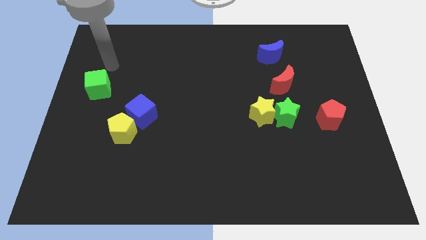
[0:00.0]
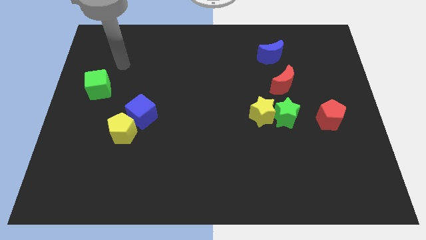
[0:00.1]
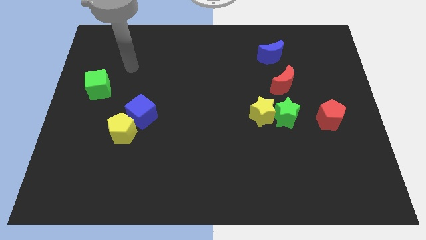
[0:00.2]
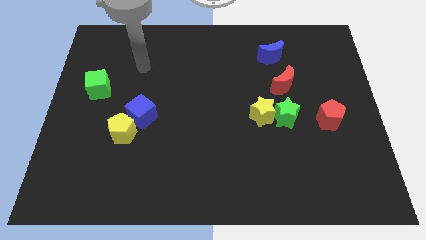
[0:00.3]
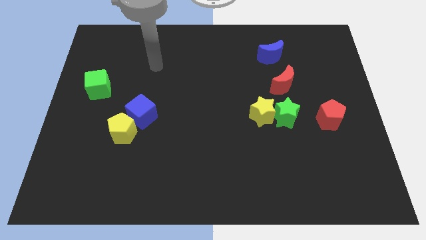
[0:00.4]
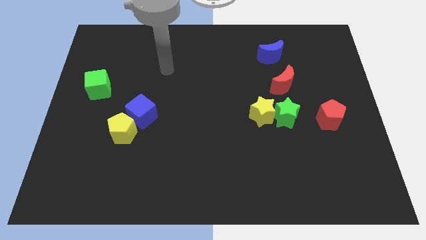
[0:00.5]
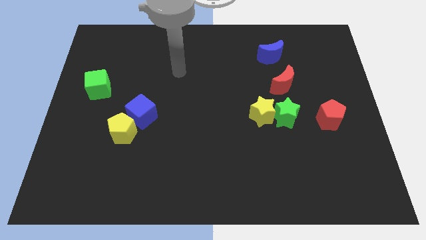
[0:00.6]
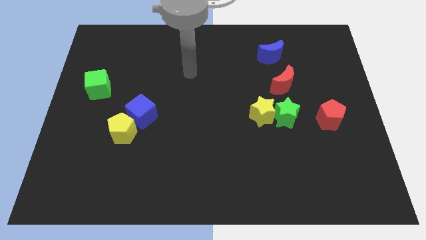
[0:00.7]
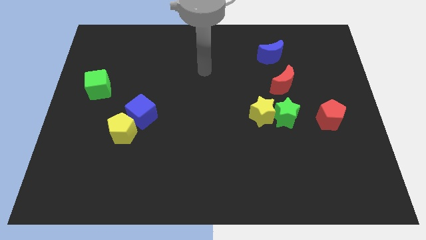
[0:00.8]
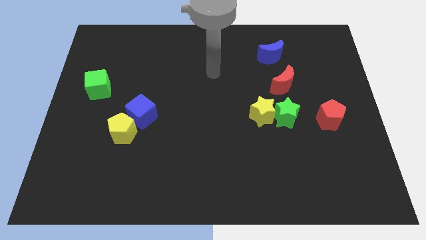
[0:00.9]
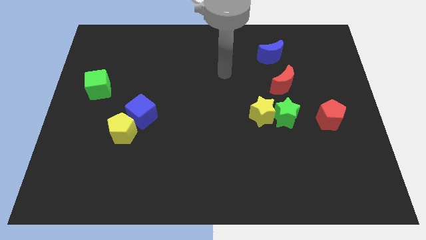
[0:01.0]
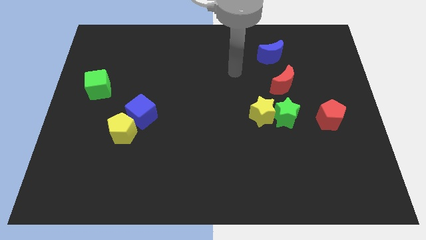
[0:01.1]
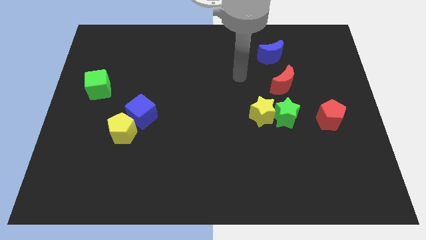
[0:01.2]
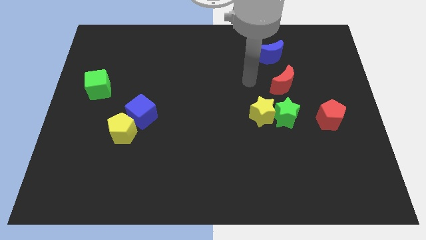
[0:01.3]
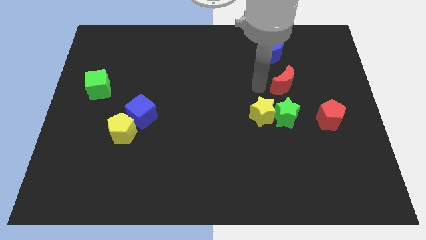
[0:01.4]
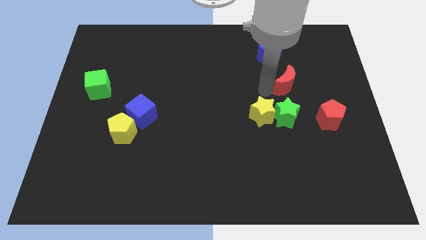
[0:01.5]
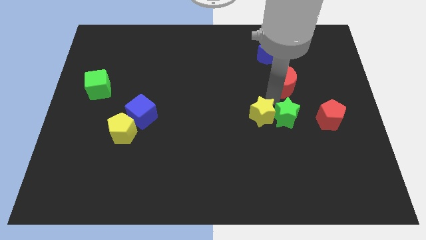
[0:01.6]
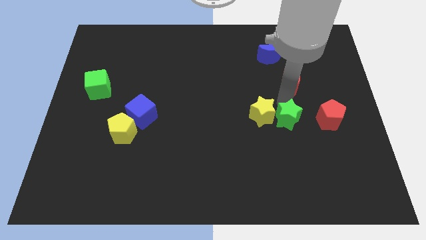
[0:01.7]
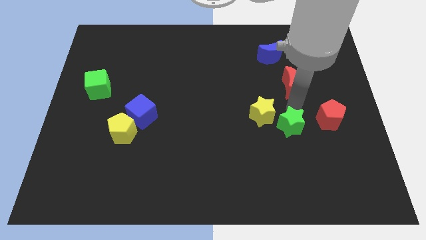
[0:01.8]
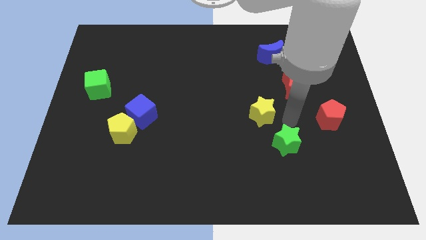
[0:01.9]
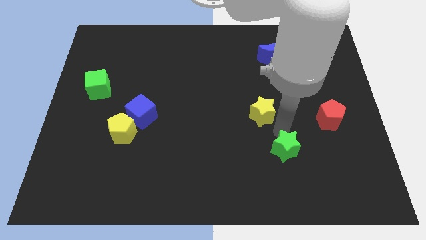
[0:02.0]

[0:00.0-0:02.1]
separate the yellow star from the green star

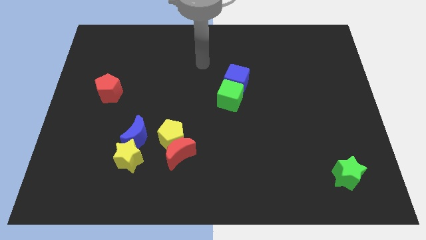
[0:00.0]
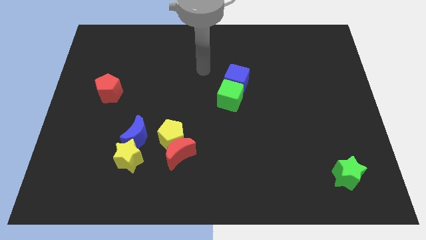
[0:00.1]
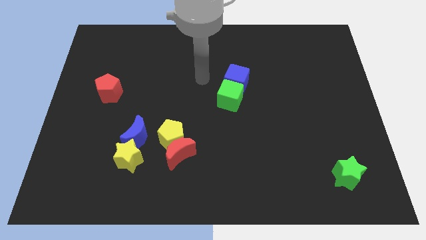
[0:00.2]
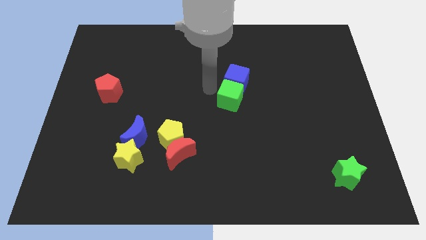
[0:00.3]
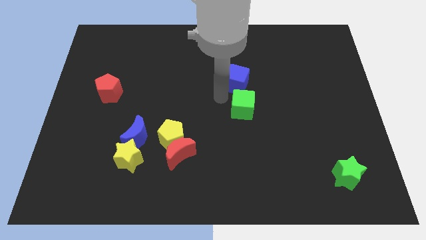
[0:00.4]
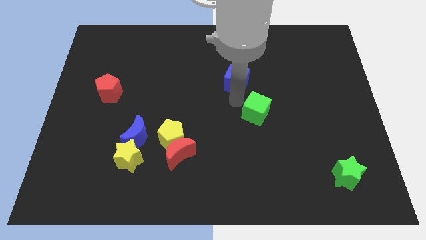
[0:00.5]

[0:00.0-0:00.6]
separate the blue cube from the green cube

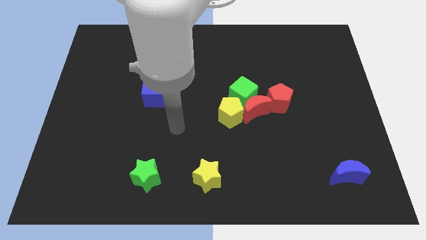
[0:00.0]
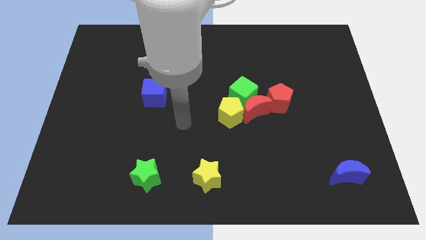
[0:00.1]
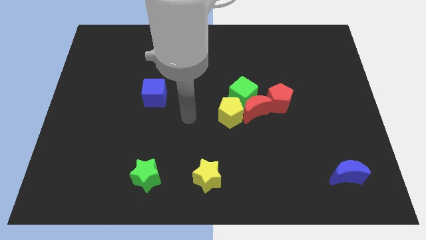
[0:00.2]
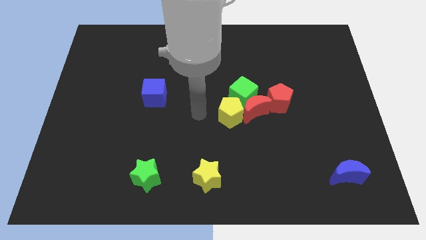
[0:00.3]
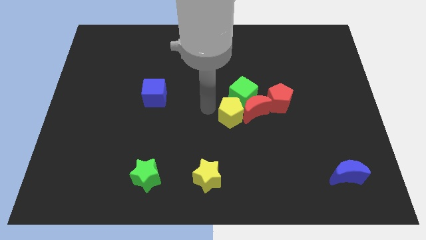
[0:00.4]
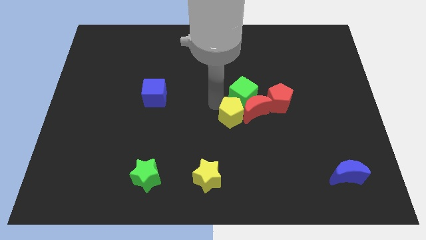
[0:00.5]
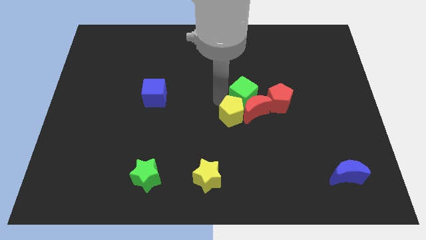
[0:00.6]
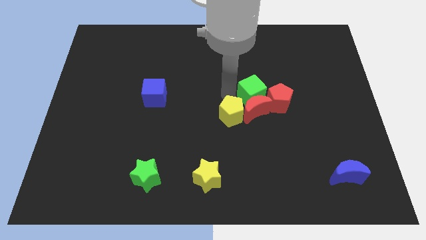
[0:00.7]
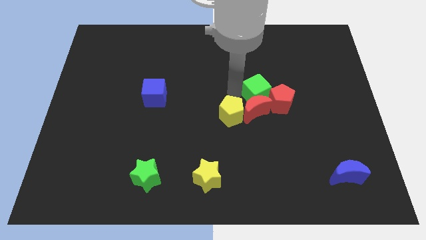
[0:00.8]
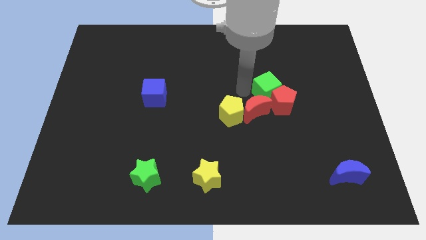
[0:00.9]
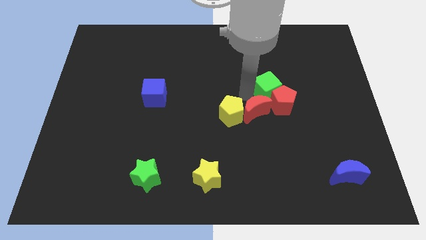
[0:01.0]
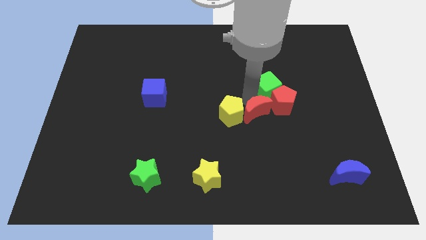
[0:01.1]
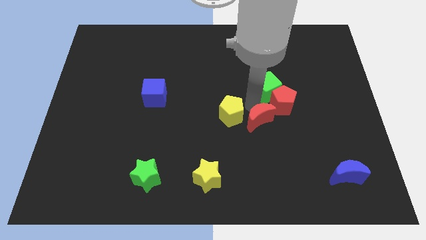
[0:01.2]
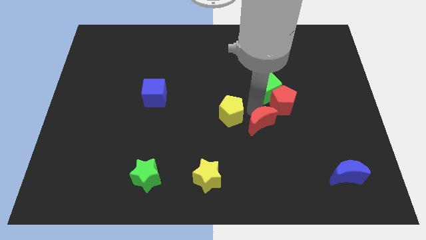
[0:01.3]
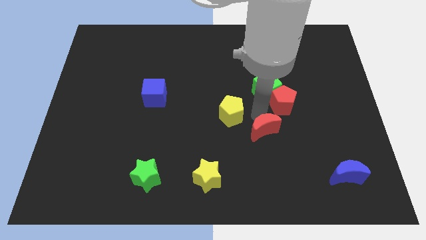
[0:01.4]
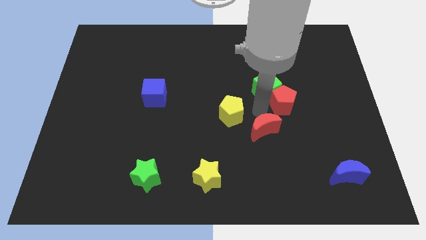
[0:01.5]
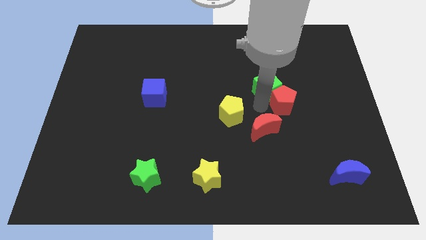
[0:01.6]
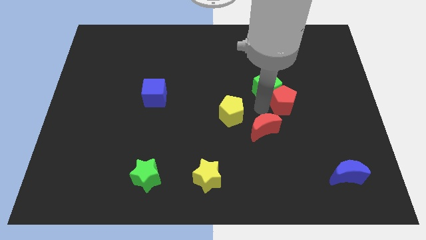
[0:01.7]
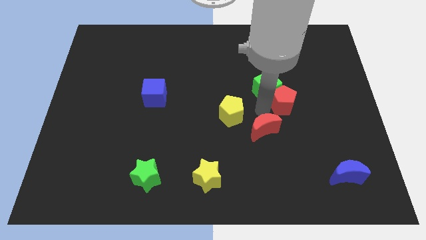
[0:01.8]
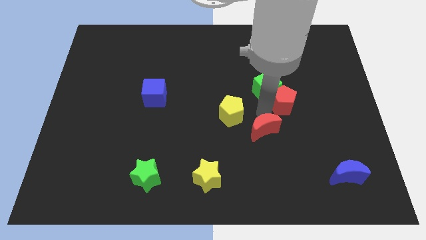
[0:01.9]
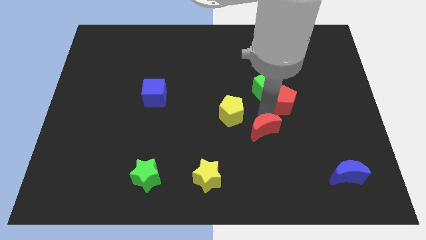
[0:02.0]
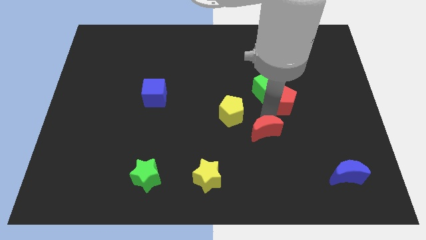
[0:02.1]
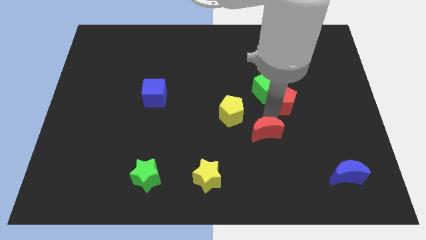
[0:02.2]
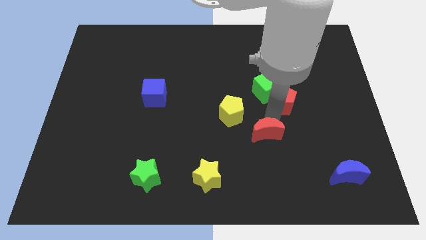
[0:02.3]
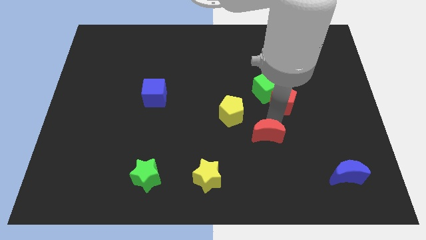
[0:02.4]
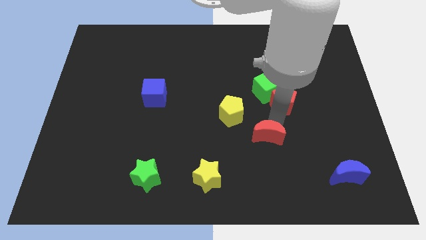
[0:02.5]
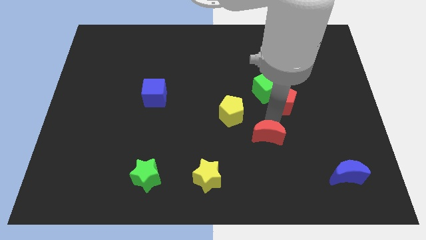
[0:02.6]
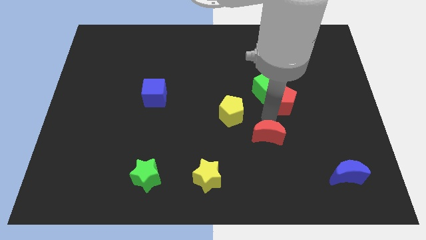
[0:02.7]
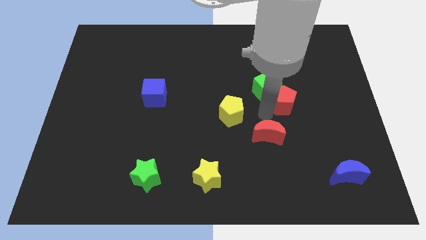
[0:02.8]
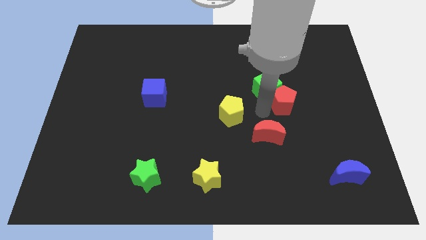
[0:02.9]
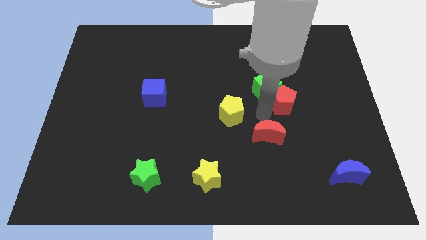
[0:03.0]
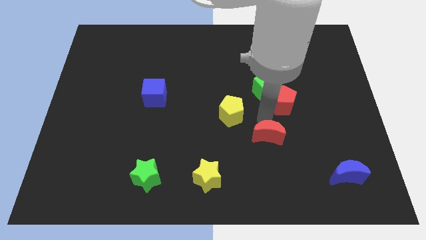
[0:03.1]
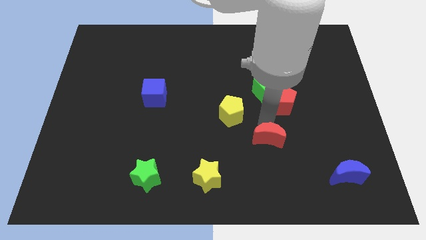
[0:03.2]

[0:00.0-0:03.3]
move the red moon away from the green cube, yellow pentagon, and red pentagon

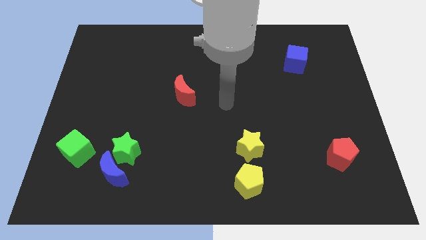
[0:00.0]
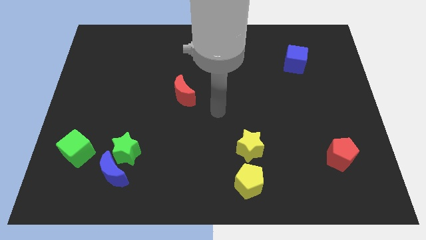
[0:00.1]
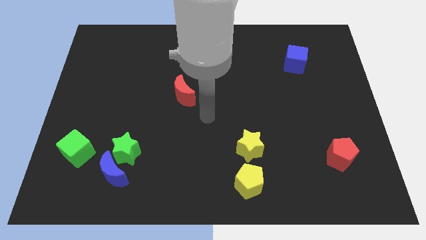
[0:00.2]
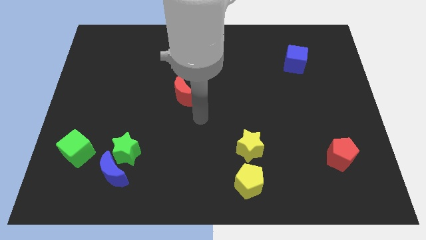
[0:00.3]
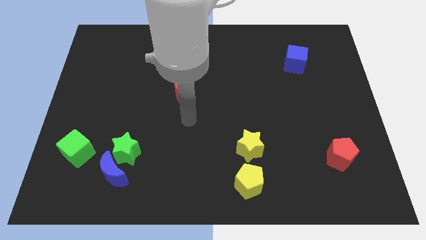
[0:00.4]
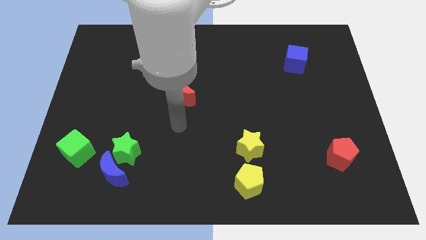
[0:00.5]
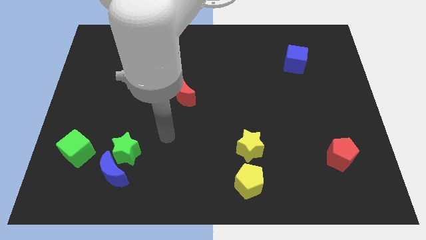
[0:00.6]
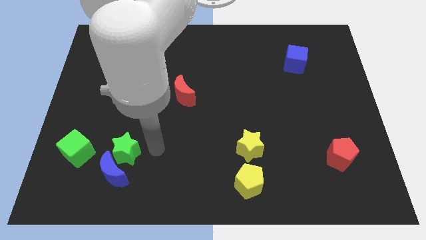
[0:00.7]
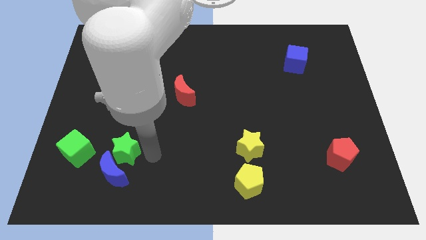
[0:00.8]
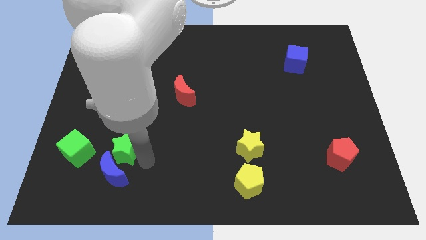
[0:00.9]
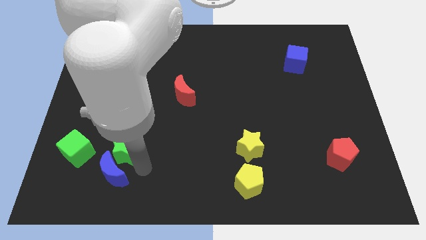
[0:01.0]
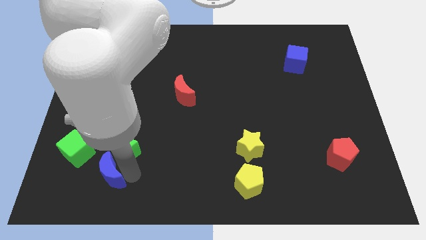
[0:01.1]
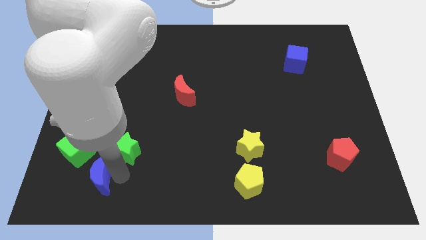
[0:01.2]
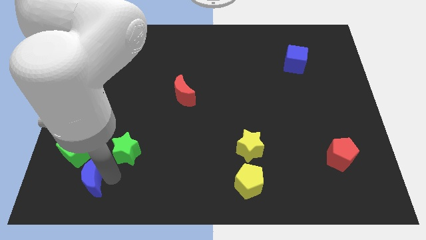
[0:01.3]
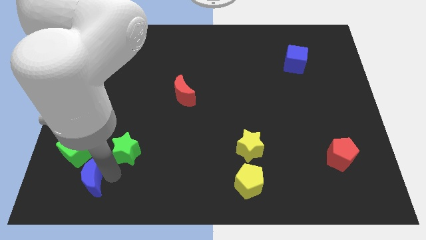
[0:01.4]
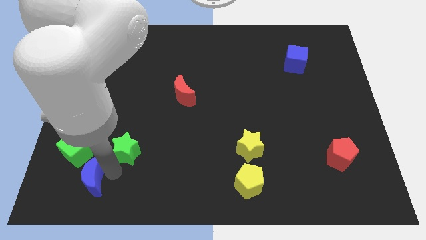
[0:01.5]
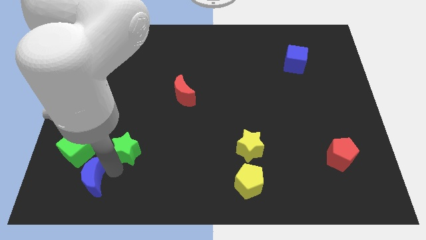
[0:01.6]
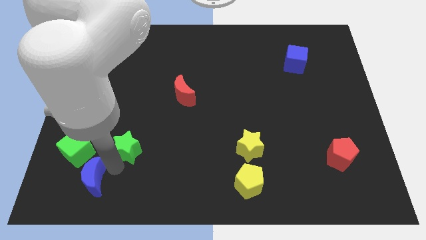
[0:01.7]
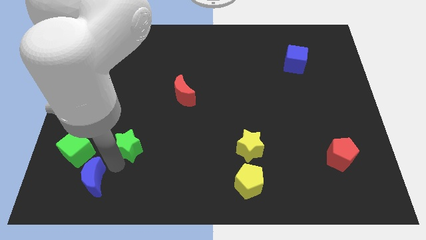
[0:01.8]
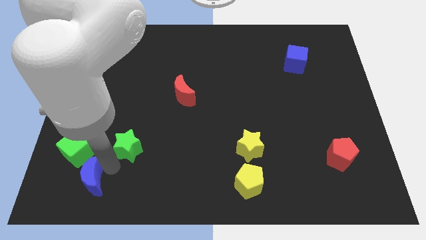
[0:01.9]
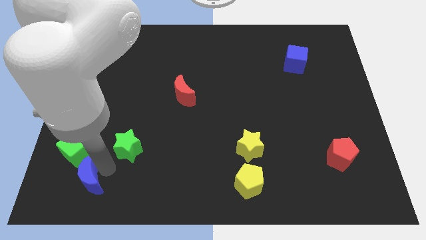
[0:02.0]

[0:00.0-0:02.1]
move the green star away from the blue moon

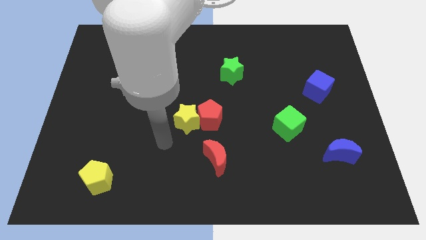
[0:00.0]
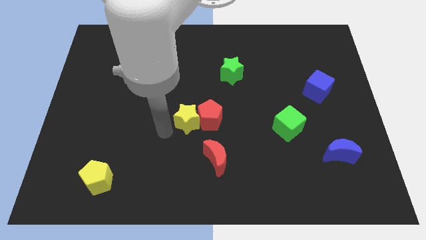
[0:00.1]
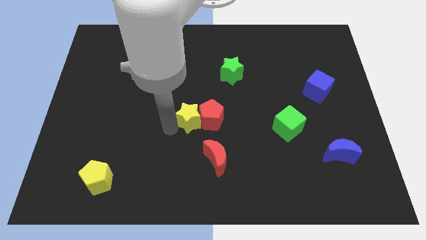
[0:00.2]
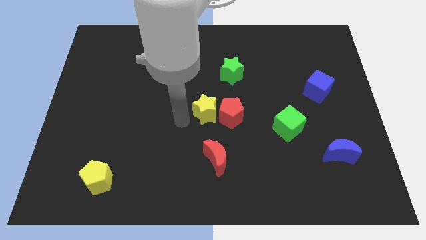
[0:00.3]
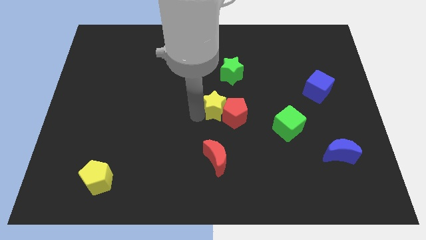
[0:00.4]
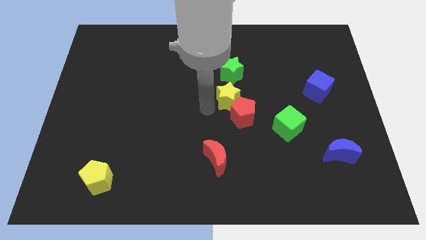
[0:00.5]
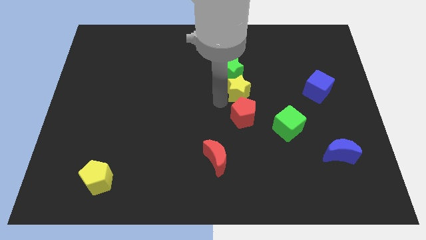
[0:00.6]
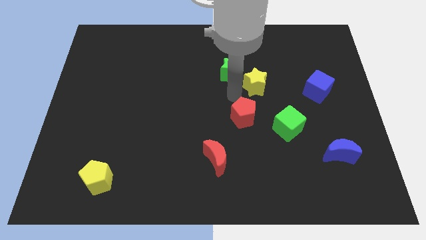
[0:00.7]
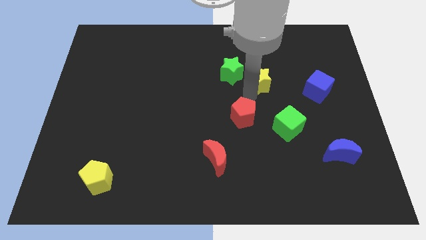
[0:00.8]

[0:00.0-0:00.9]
pull the red pentagon apart from the yellow star

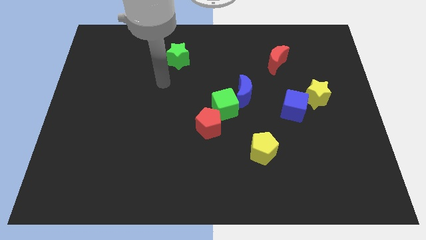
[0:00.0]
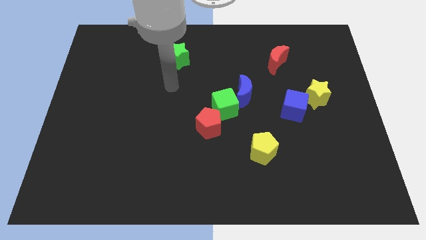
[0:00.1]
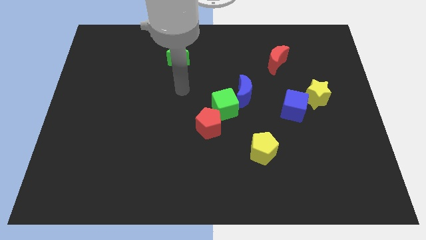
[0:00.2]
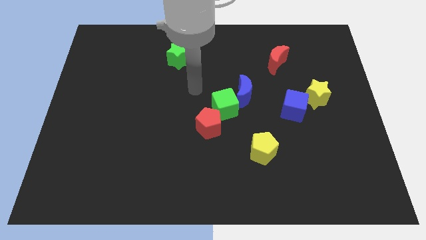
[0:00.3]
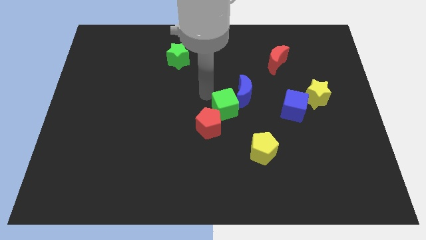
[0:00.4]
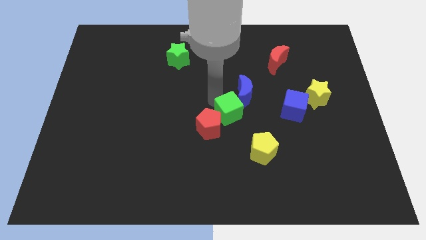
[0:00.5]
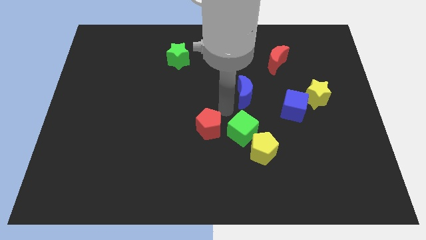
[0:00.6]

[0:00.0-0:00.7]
separate the blue moon from the green cube
